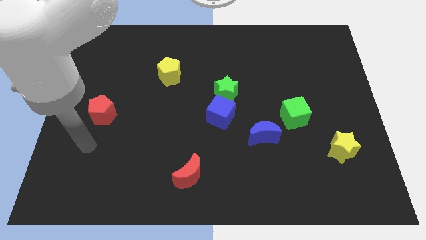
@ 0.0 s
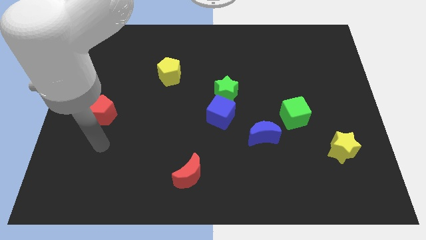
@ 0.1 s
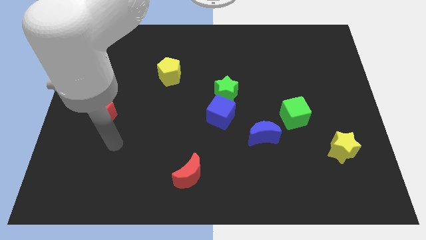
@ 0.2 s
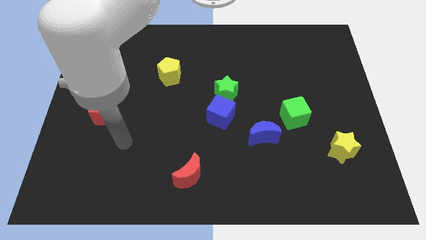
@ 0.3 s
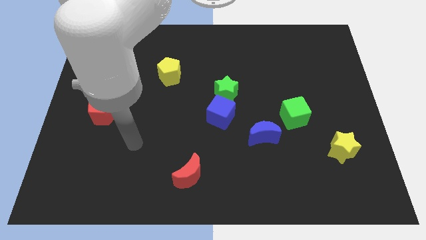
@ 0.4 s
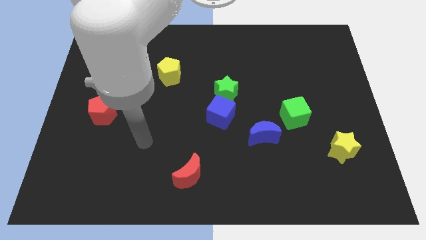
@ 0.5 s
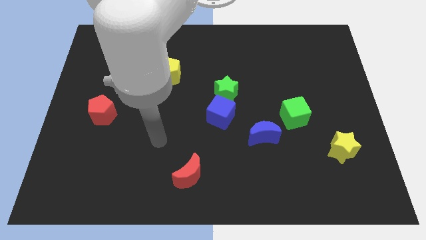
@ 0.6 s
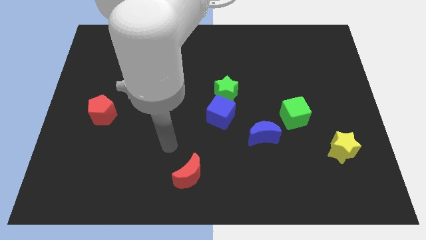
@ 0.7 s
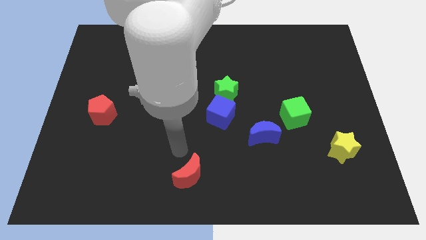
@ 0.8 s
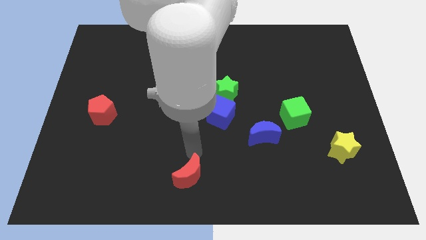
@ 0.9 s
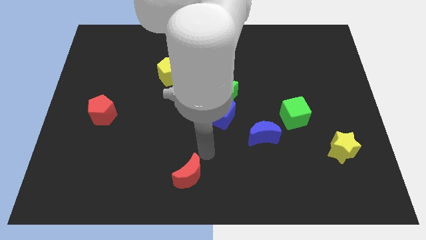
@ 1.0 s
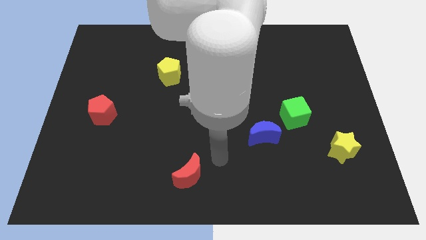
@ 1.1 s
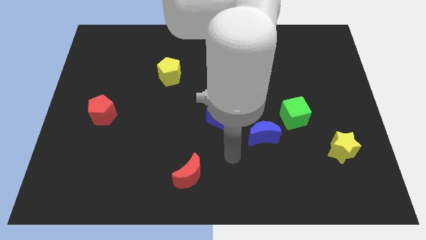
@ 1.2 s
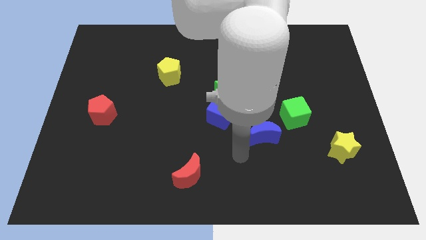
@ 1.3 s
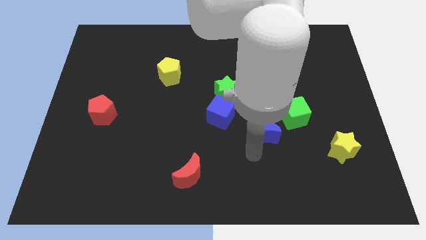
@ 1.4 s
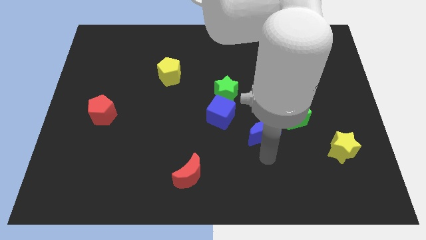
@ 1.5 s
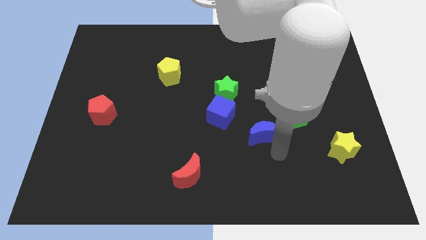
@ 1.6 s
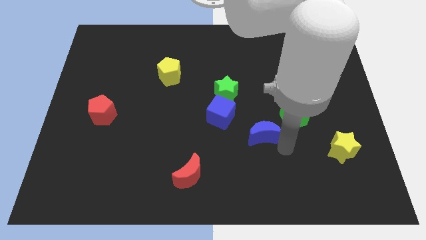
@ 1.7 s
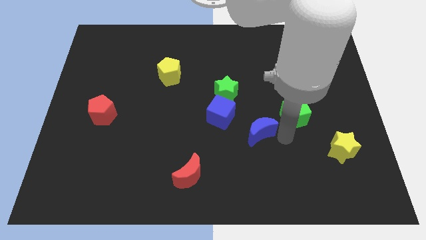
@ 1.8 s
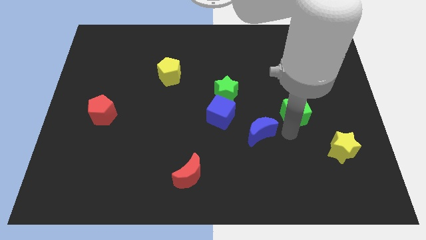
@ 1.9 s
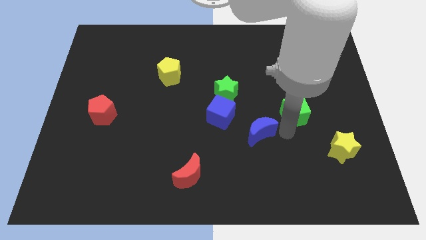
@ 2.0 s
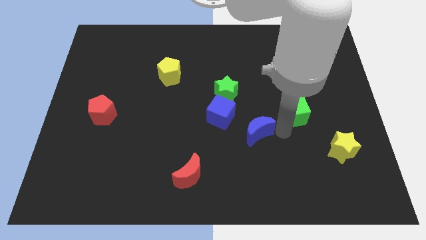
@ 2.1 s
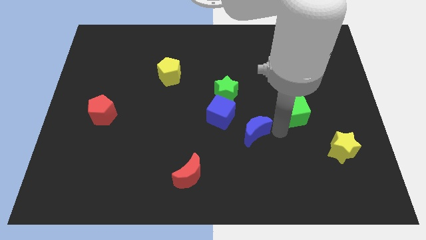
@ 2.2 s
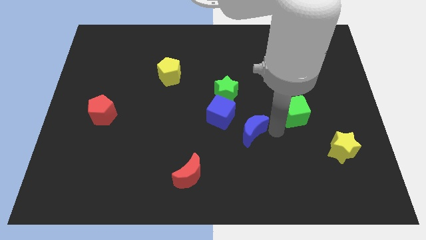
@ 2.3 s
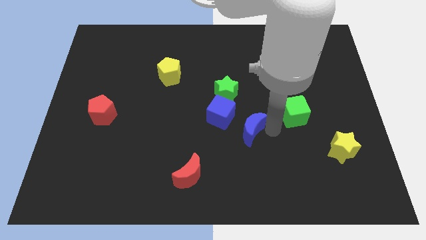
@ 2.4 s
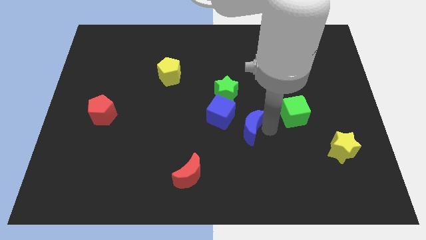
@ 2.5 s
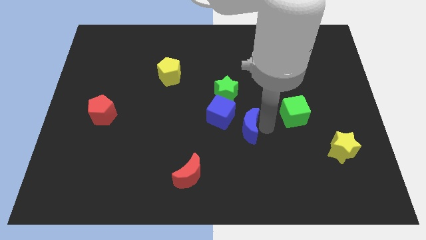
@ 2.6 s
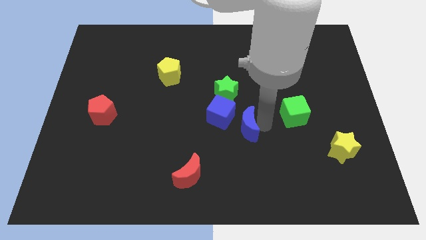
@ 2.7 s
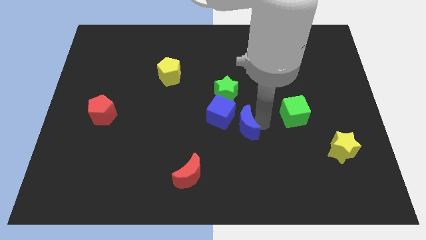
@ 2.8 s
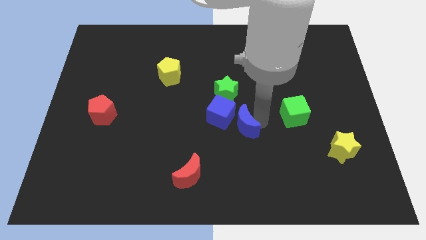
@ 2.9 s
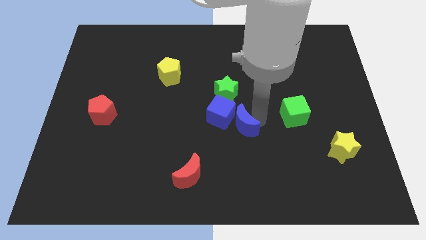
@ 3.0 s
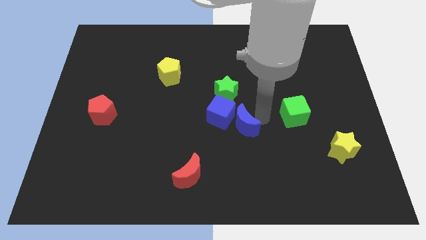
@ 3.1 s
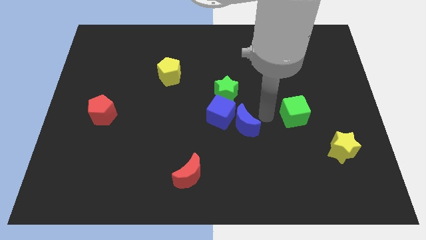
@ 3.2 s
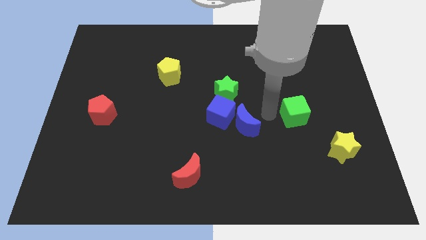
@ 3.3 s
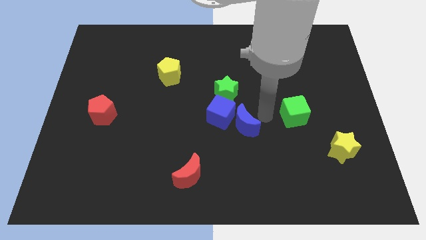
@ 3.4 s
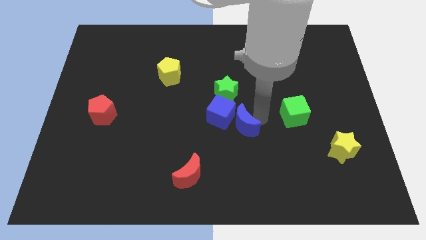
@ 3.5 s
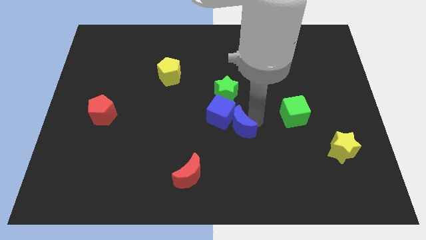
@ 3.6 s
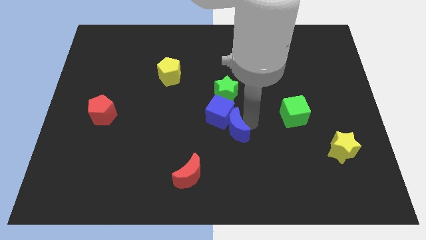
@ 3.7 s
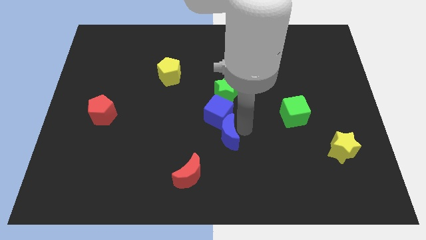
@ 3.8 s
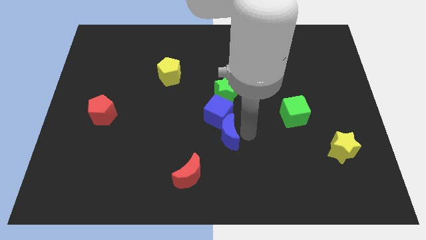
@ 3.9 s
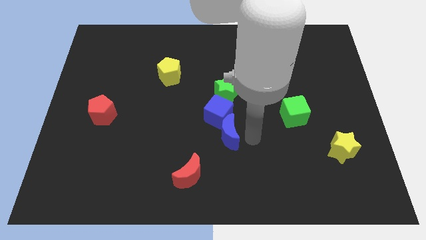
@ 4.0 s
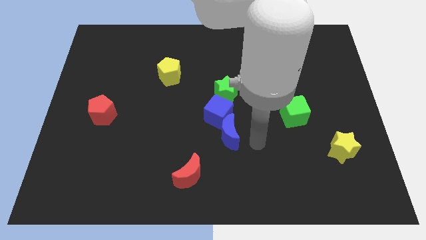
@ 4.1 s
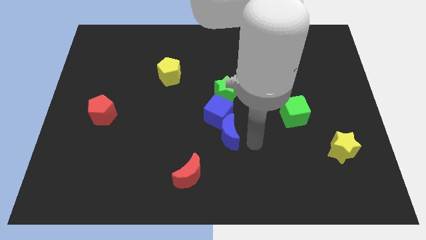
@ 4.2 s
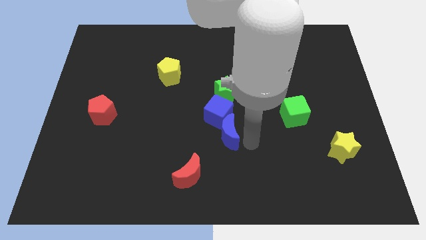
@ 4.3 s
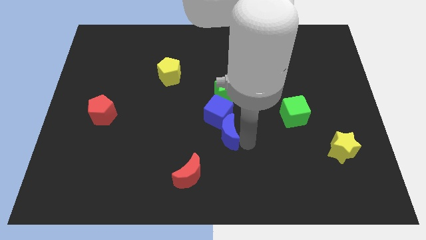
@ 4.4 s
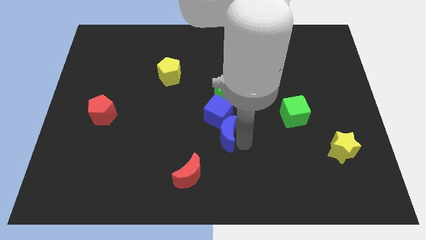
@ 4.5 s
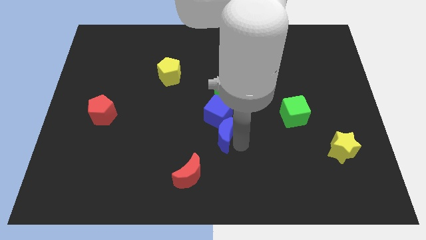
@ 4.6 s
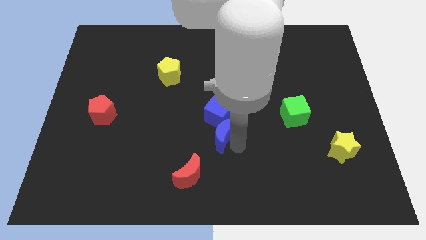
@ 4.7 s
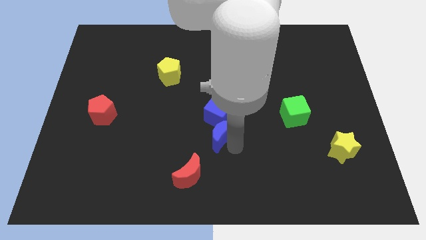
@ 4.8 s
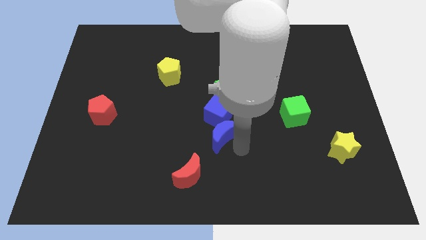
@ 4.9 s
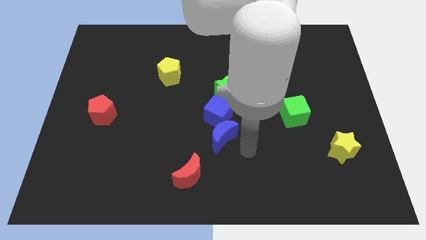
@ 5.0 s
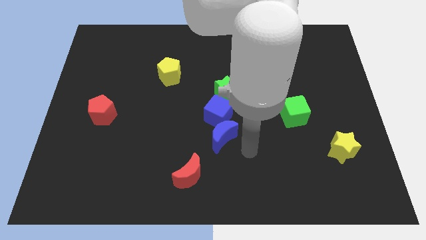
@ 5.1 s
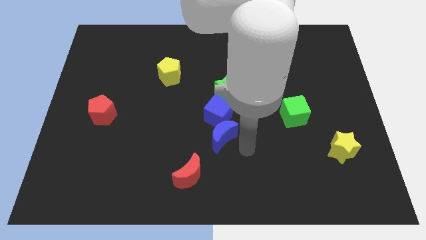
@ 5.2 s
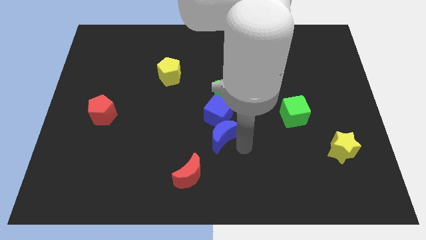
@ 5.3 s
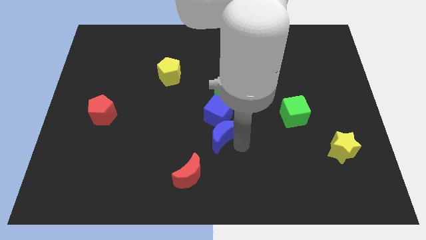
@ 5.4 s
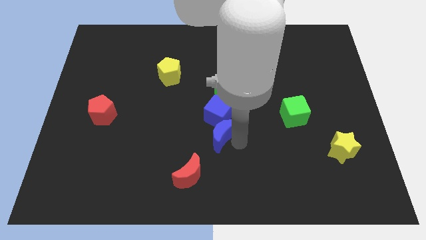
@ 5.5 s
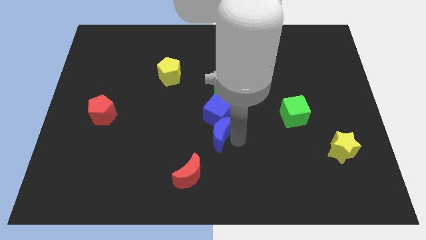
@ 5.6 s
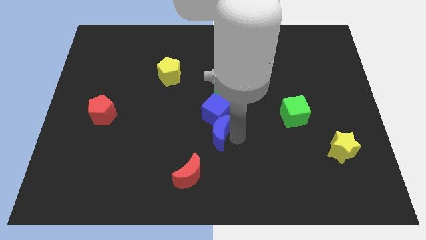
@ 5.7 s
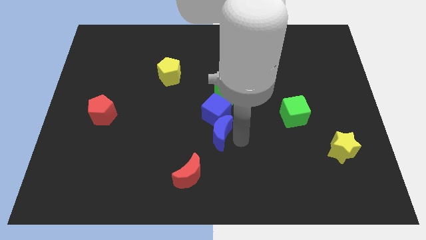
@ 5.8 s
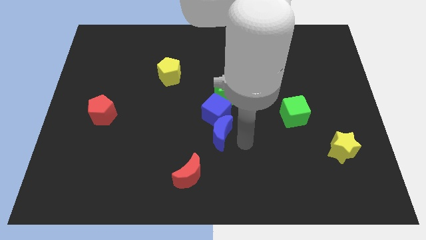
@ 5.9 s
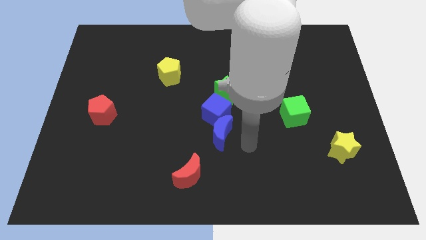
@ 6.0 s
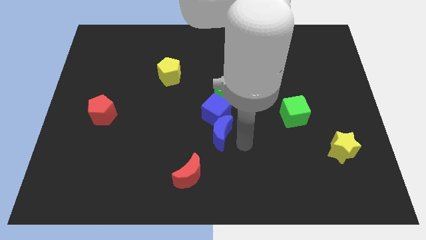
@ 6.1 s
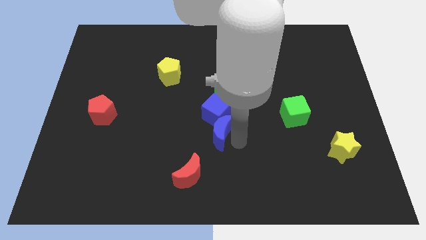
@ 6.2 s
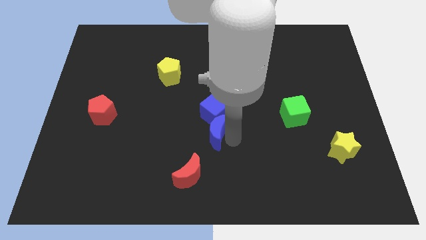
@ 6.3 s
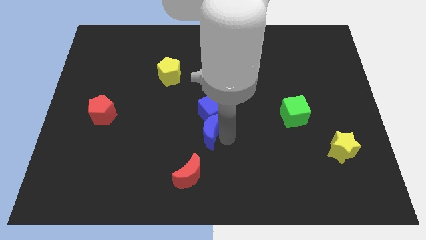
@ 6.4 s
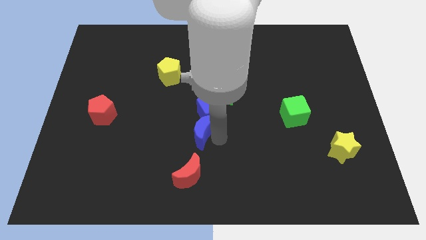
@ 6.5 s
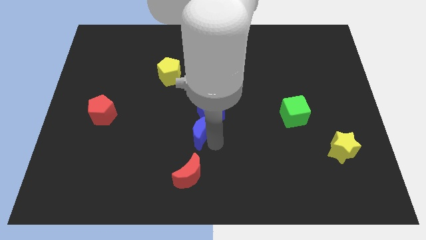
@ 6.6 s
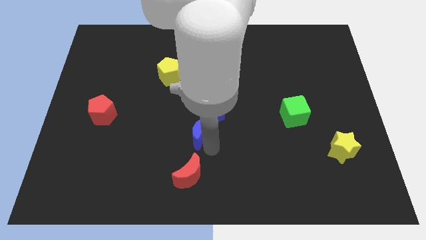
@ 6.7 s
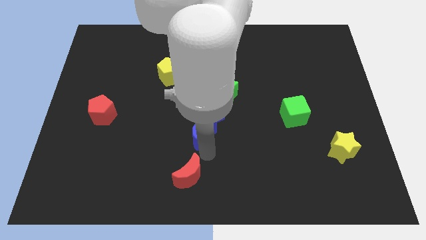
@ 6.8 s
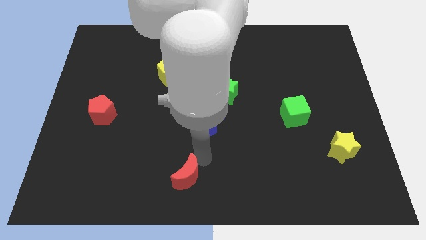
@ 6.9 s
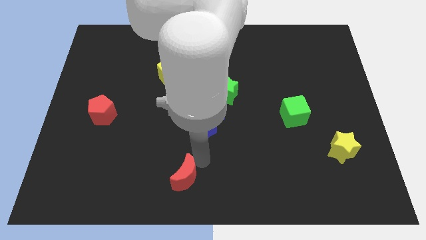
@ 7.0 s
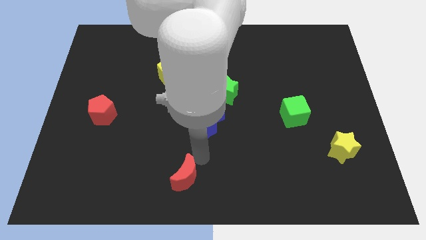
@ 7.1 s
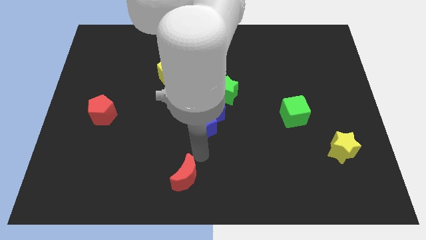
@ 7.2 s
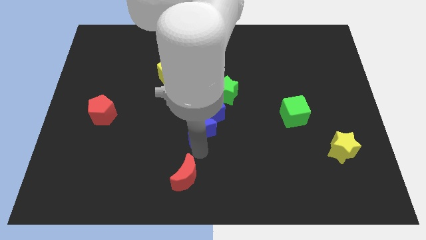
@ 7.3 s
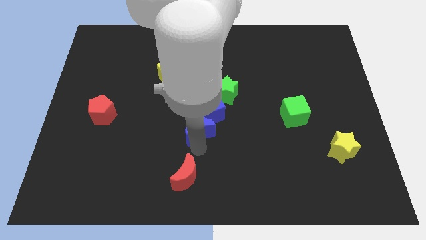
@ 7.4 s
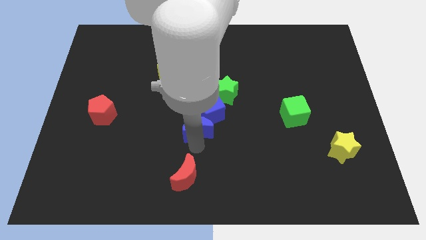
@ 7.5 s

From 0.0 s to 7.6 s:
put the blue moon diagonally down and to the left of the green star
